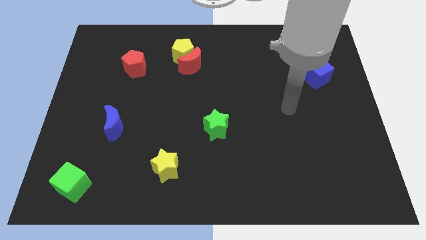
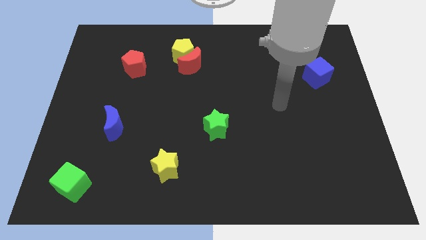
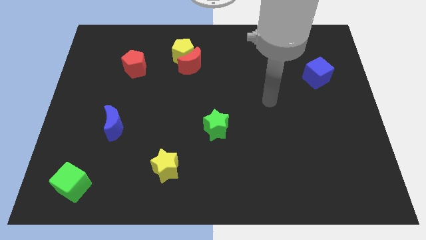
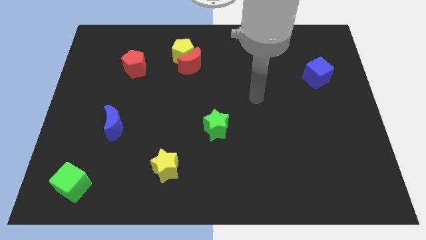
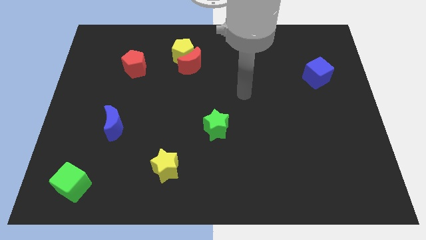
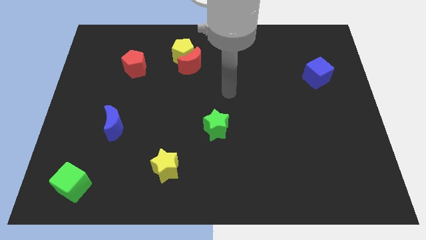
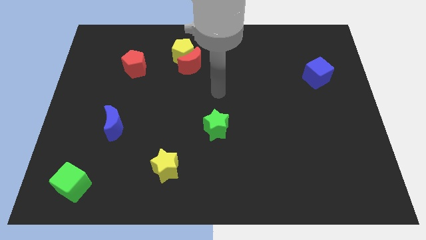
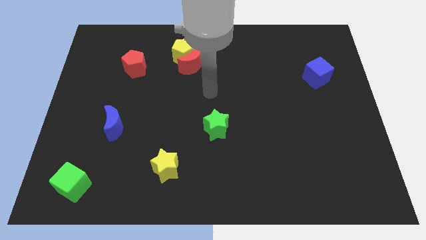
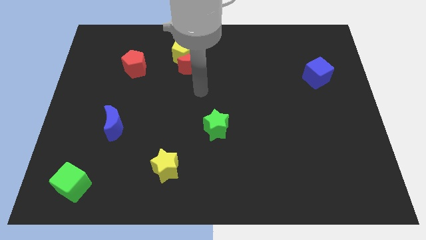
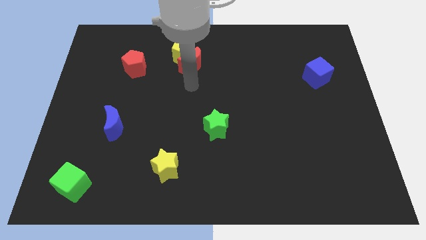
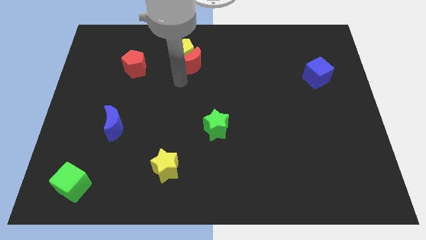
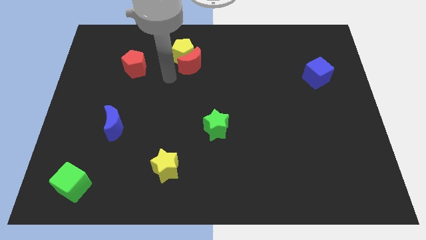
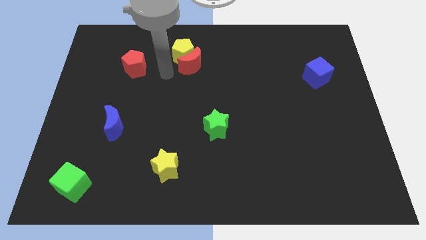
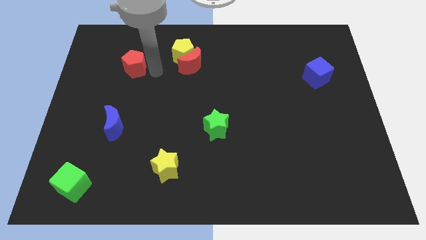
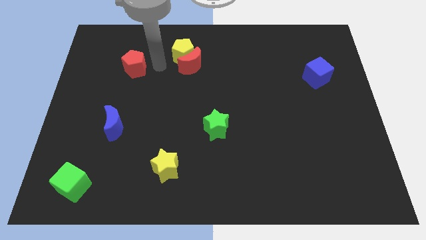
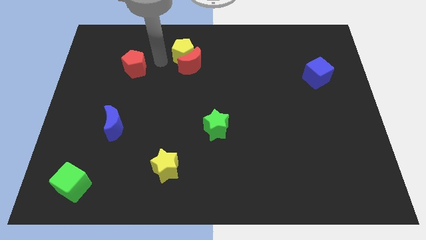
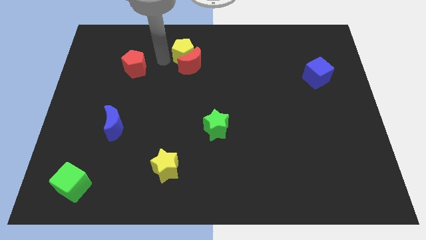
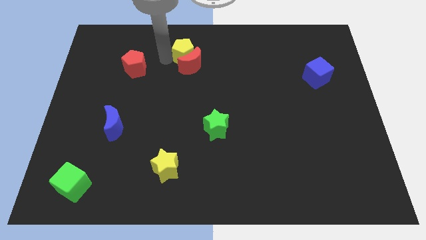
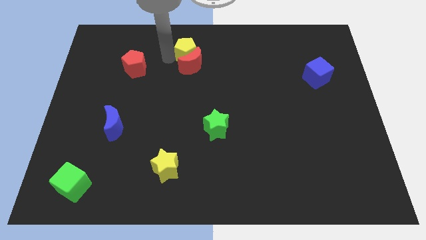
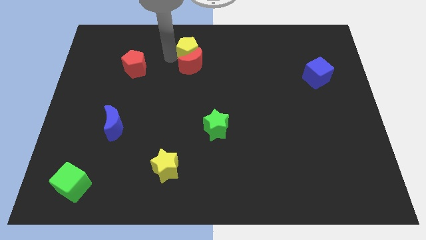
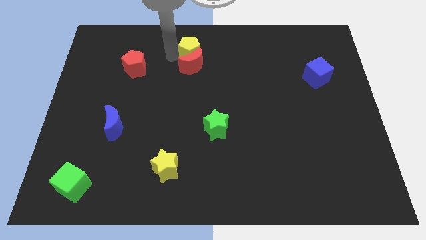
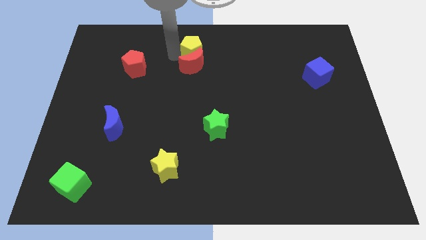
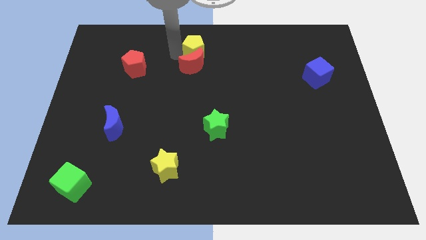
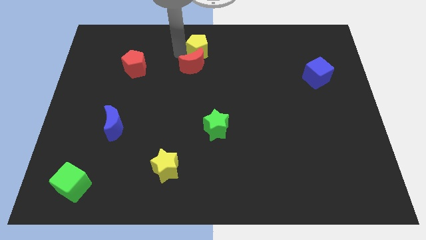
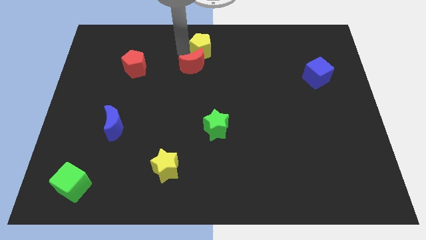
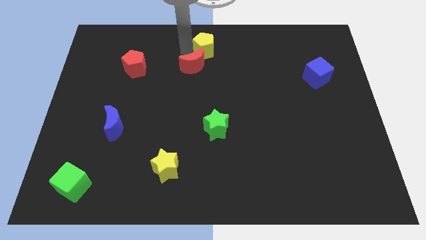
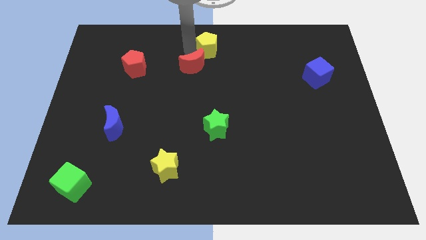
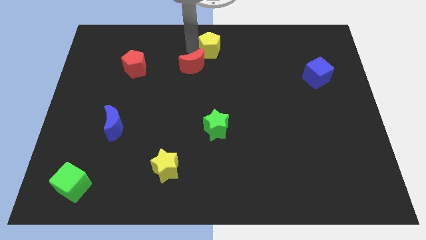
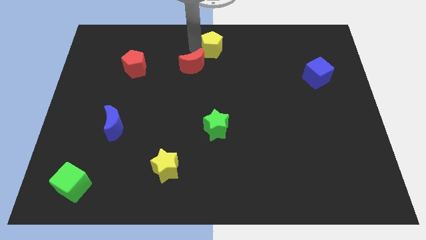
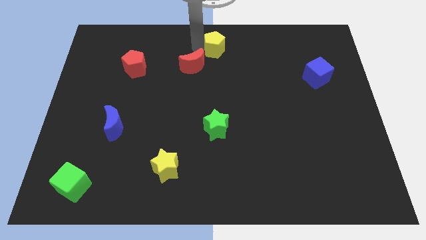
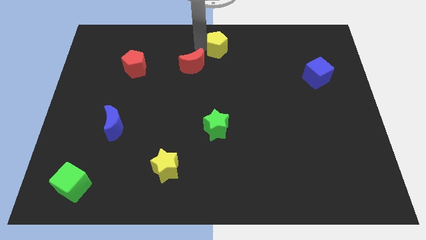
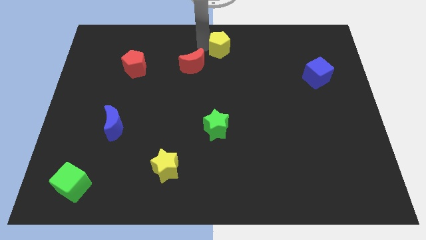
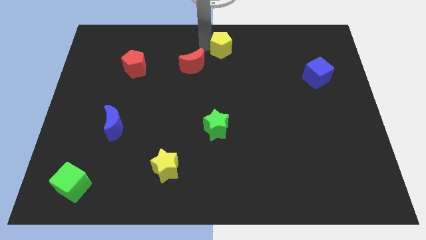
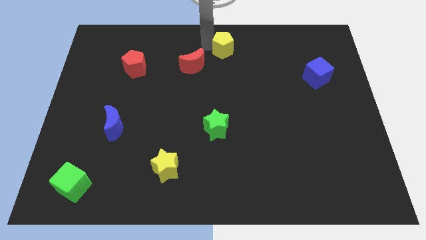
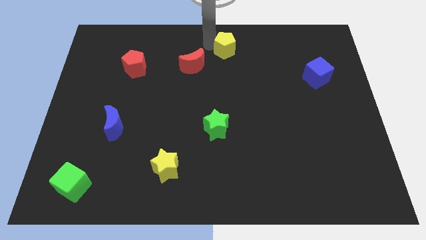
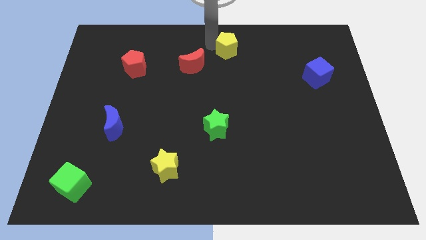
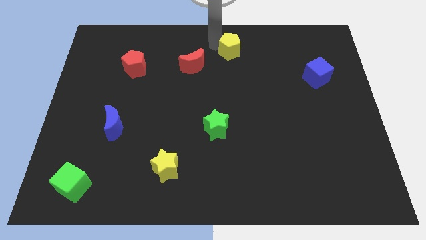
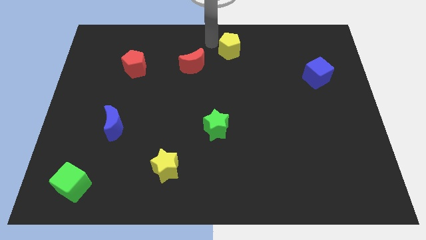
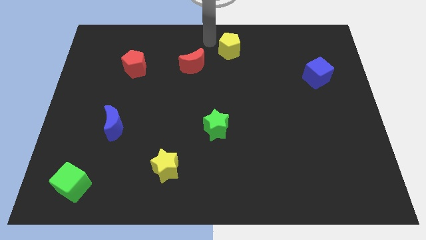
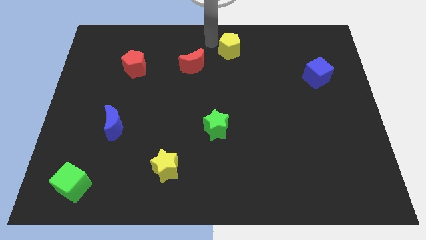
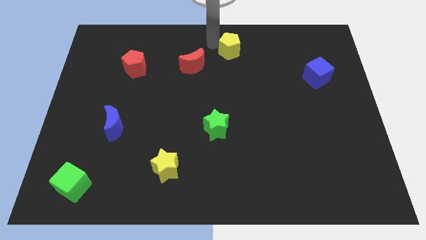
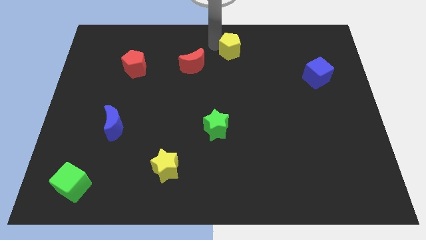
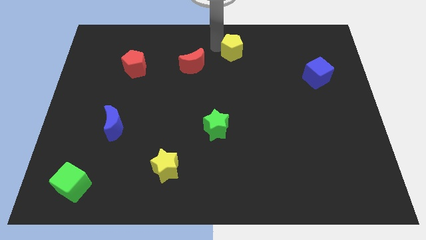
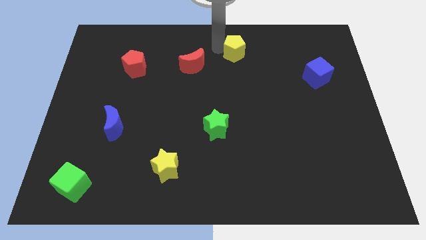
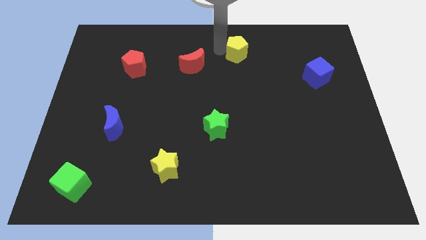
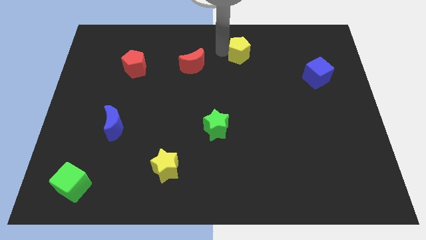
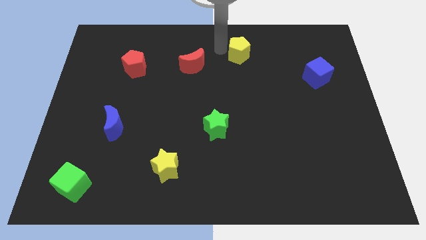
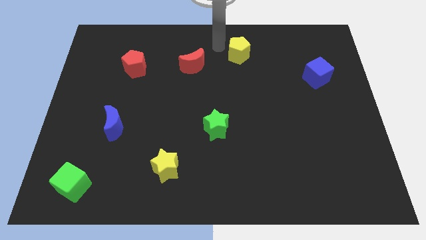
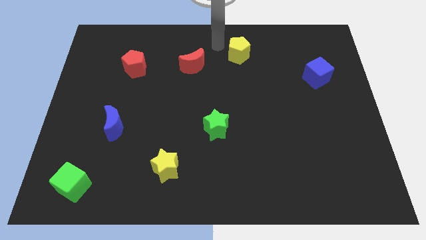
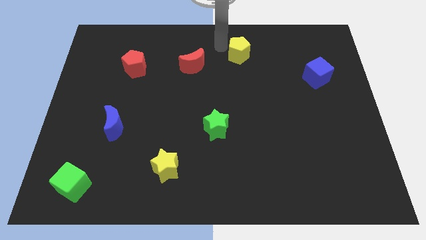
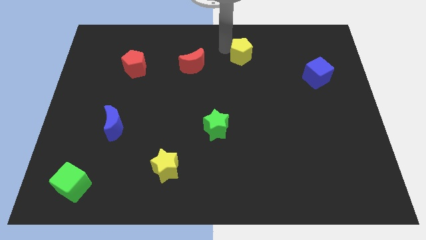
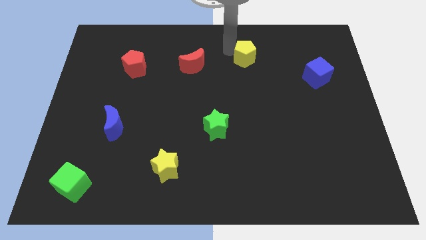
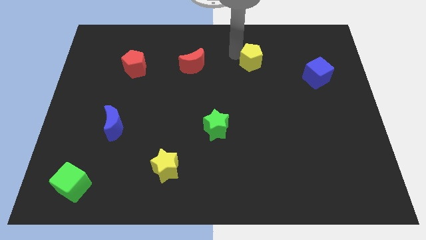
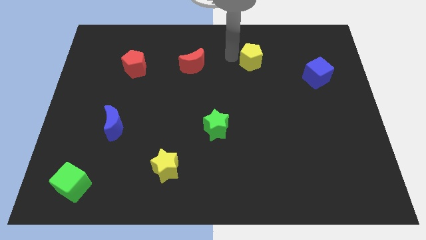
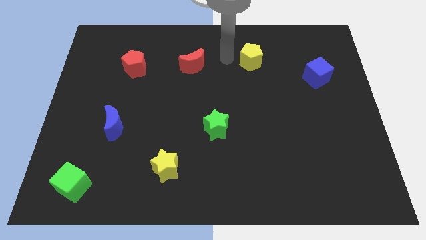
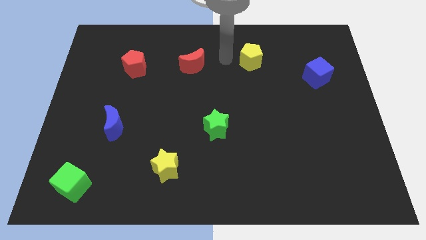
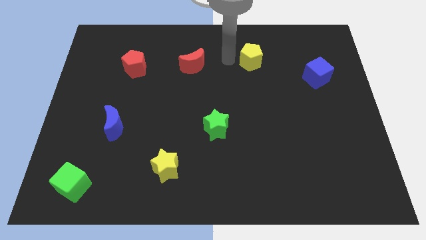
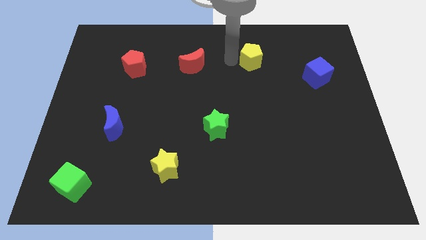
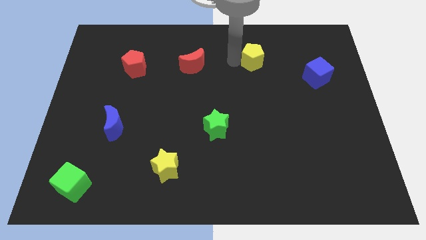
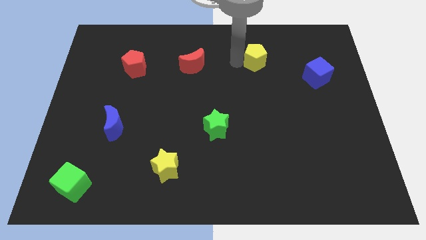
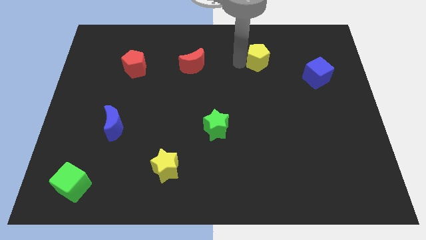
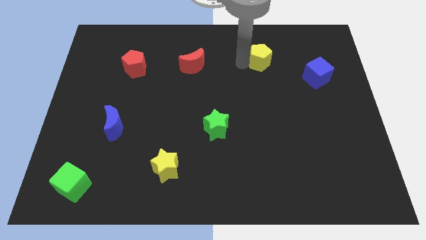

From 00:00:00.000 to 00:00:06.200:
slide the yellow pentagon to the right

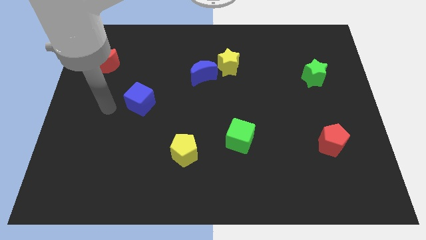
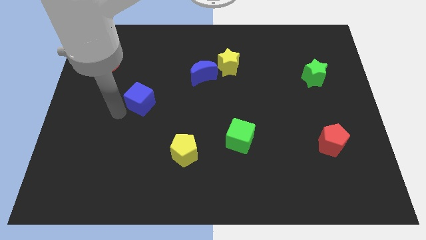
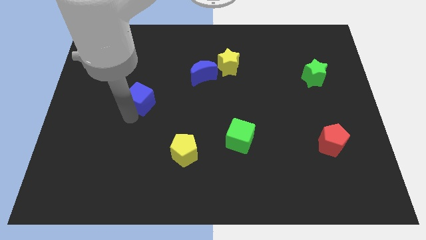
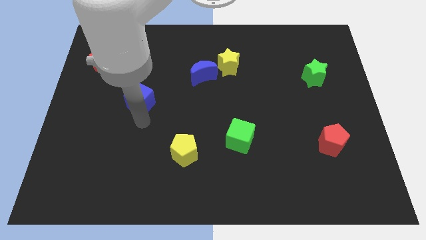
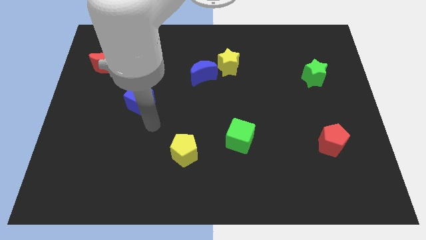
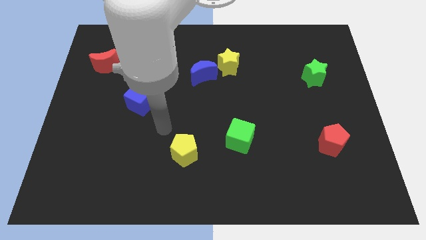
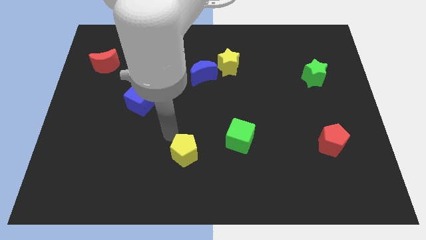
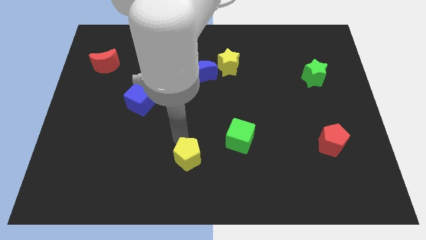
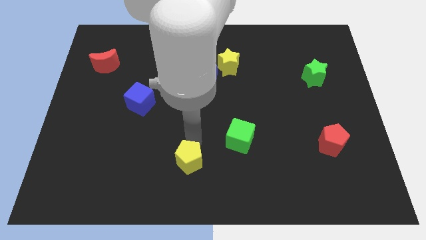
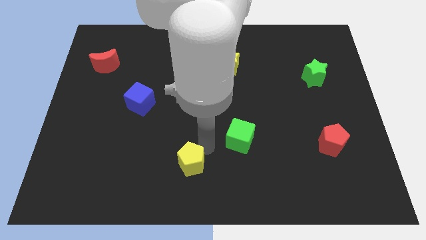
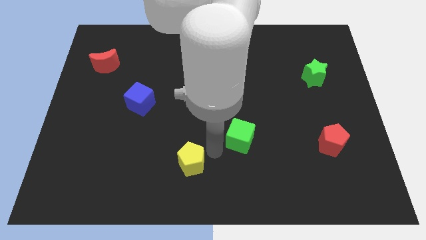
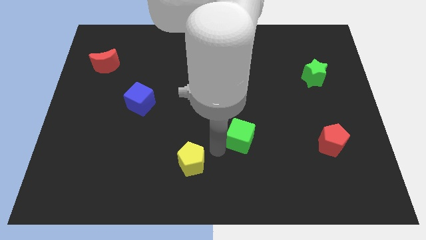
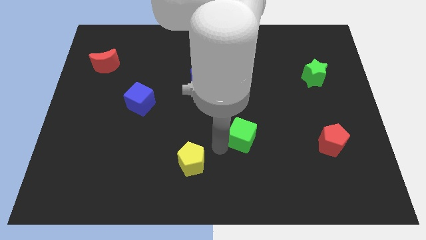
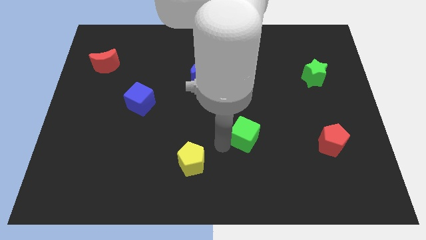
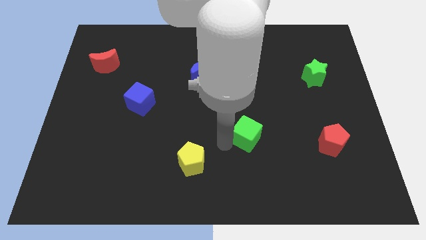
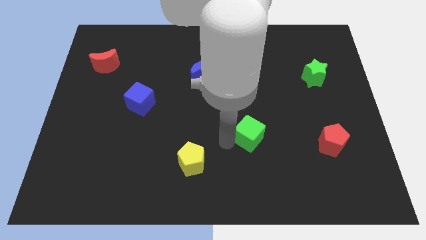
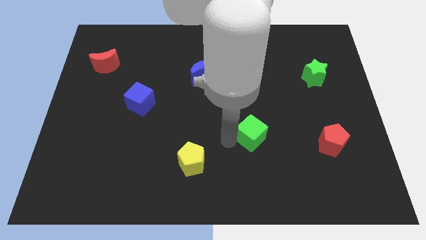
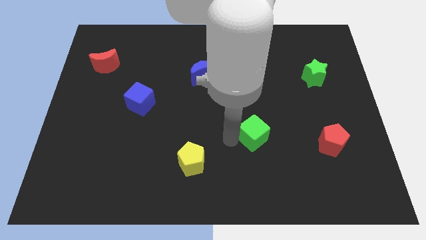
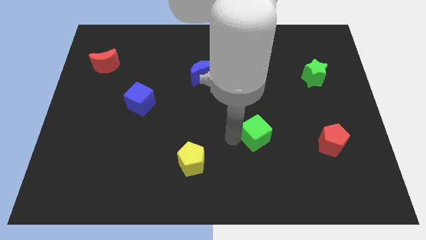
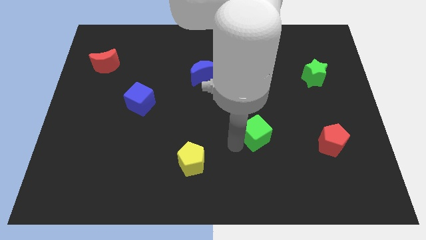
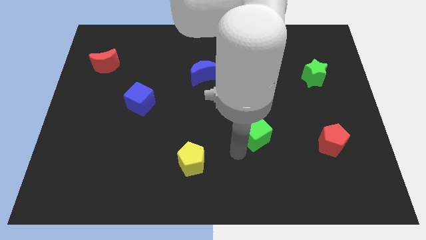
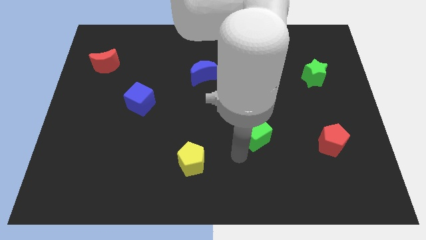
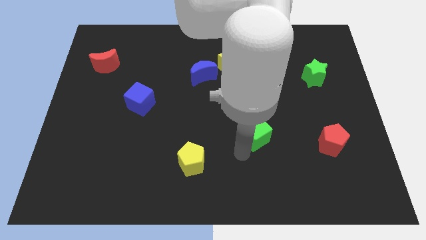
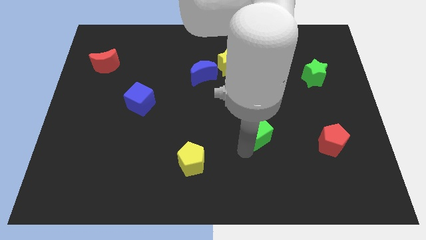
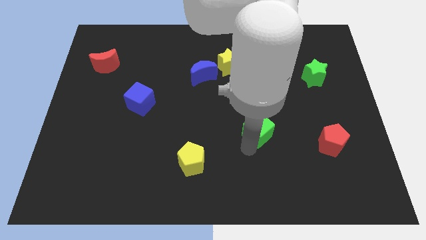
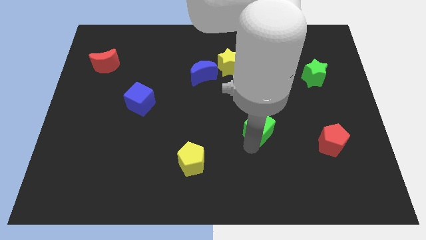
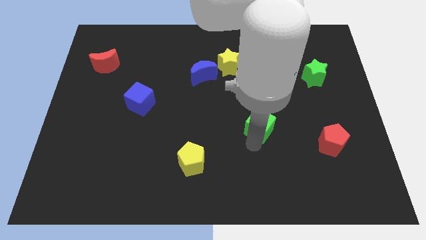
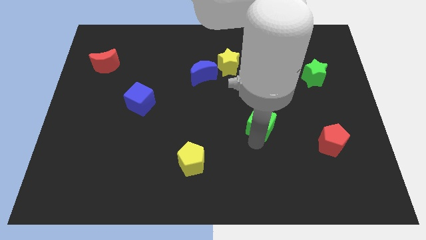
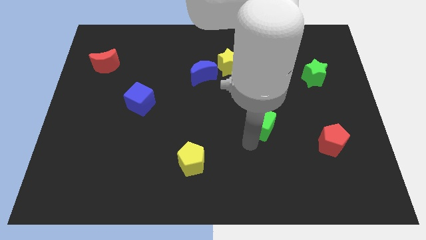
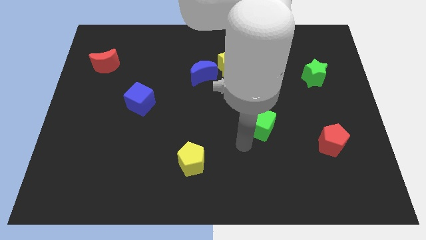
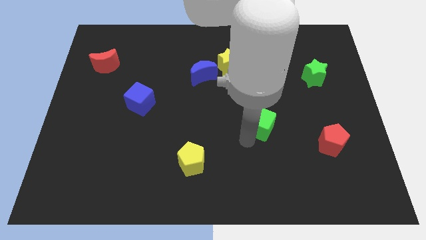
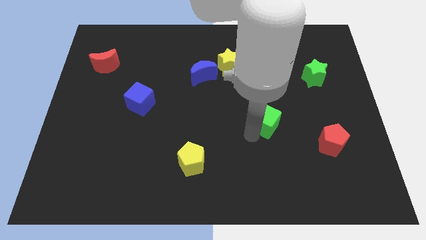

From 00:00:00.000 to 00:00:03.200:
slightly push the green cube upwards and right diagonally
